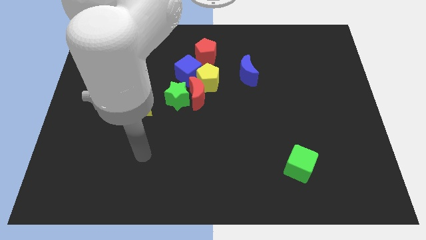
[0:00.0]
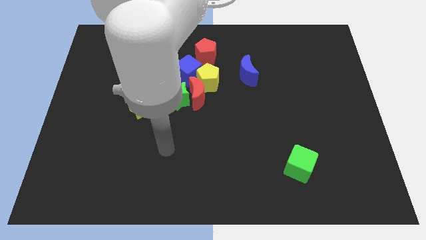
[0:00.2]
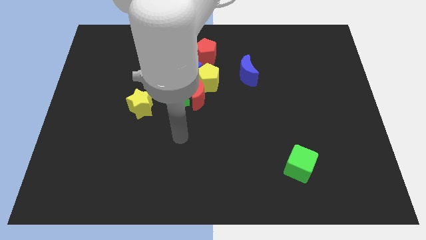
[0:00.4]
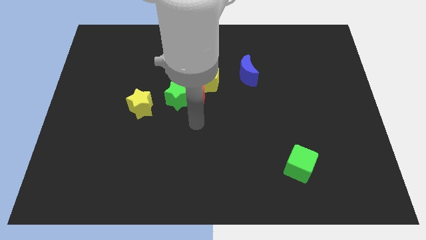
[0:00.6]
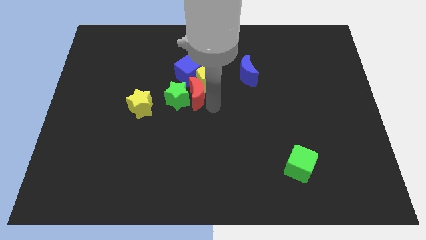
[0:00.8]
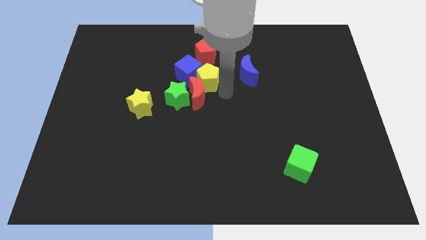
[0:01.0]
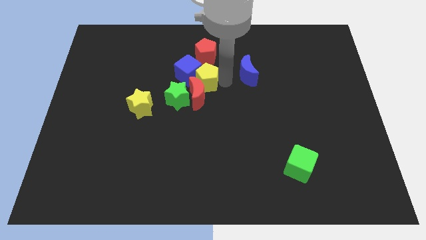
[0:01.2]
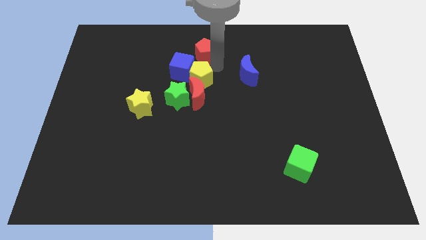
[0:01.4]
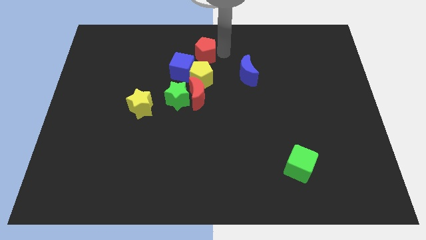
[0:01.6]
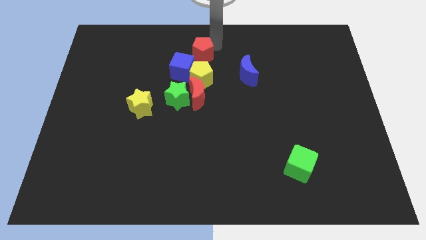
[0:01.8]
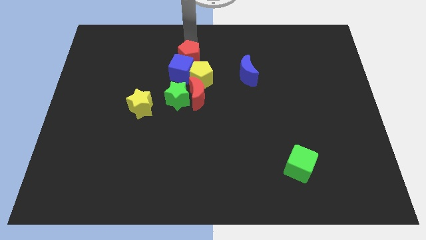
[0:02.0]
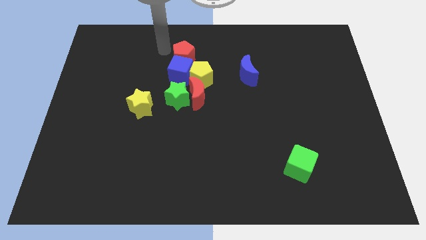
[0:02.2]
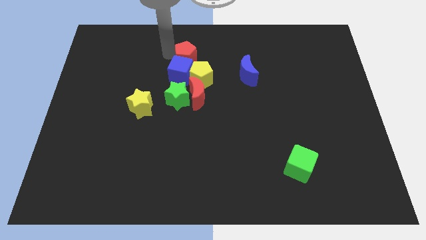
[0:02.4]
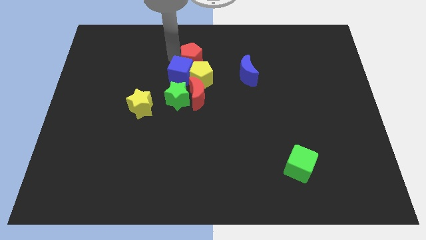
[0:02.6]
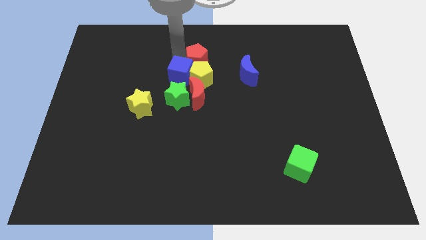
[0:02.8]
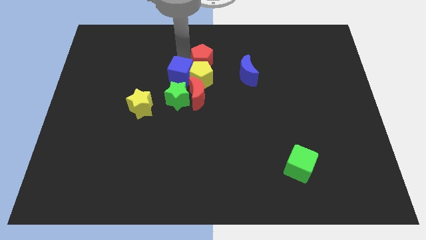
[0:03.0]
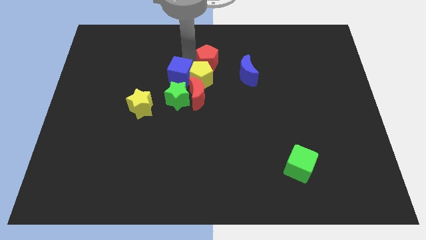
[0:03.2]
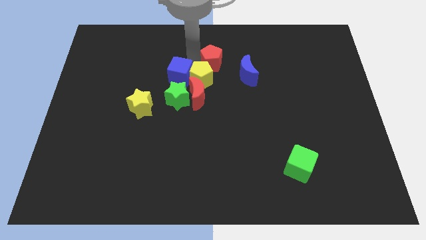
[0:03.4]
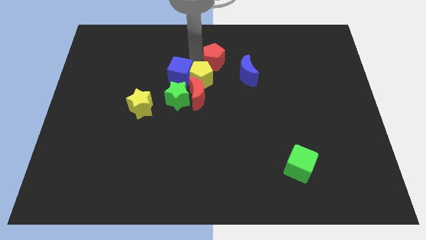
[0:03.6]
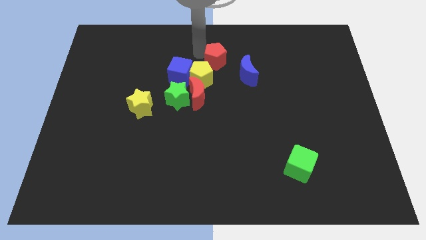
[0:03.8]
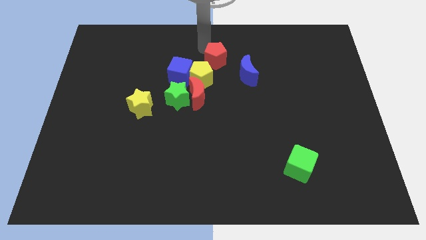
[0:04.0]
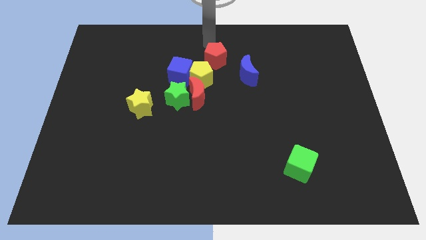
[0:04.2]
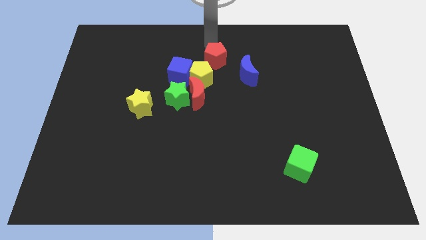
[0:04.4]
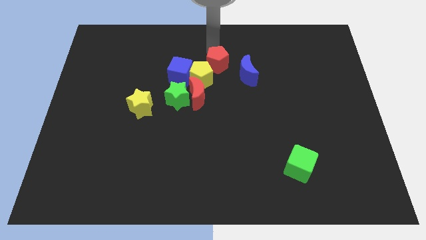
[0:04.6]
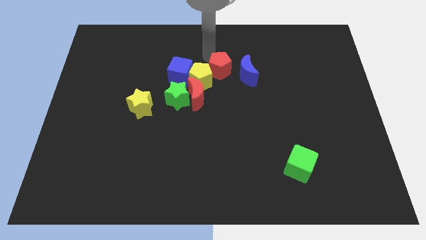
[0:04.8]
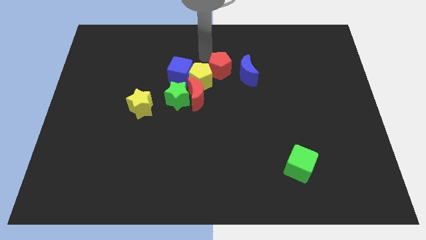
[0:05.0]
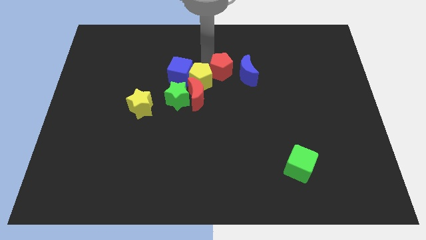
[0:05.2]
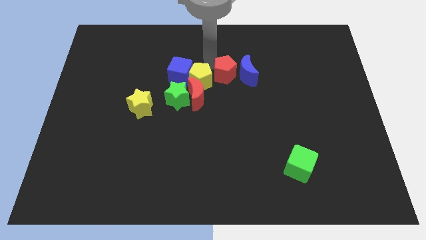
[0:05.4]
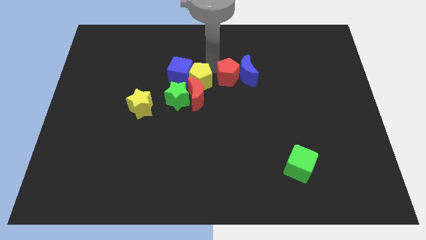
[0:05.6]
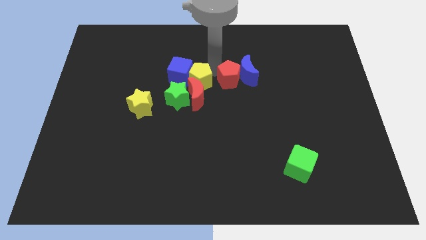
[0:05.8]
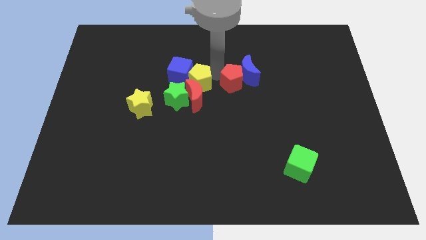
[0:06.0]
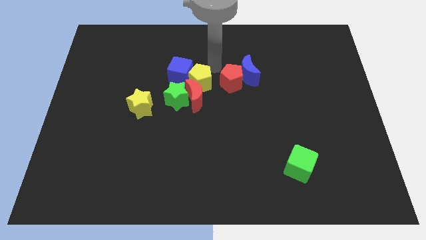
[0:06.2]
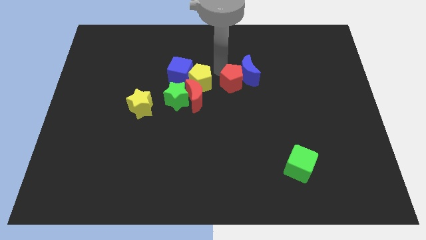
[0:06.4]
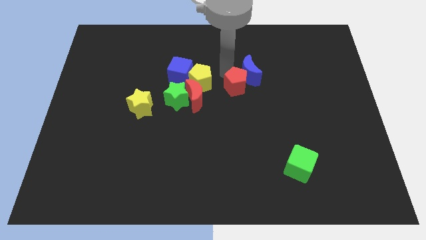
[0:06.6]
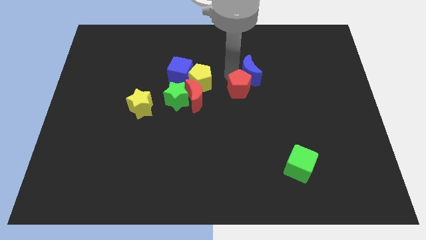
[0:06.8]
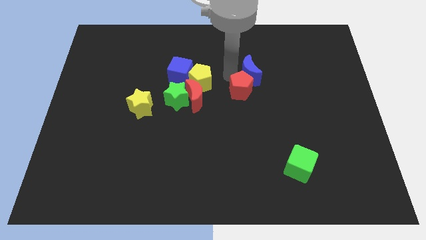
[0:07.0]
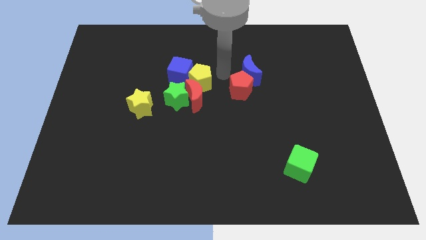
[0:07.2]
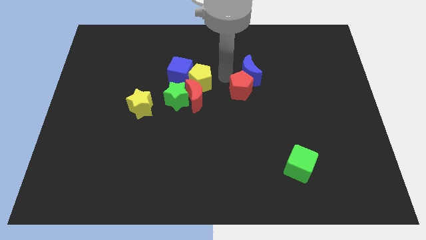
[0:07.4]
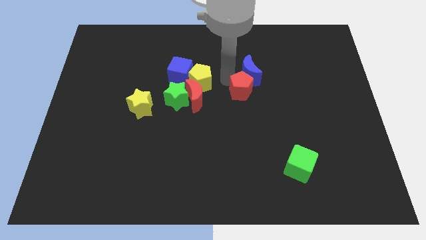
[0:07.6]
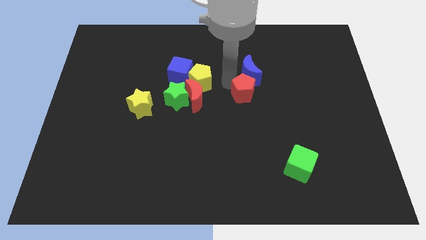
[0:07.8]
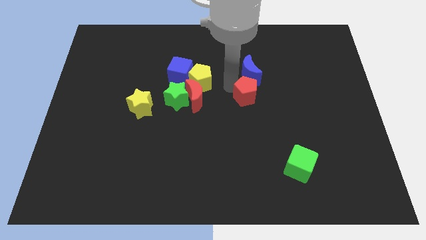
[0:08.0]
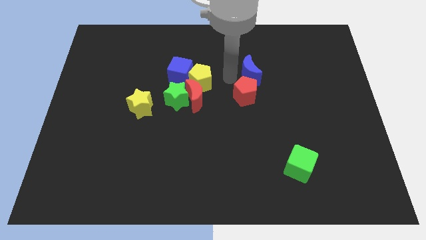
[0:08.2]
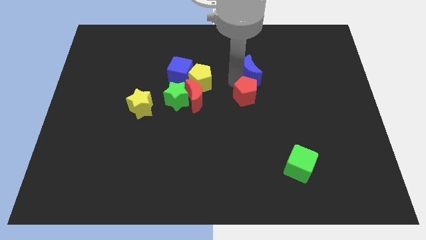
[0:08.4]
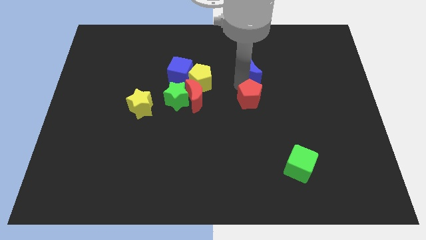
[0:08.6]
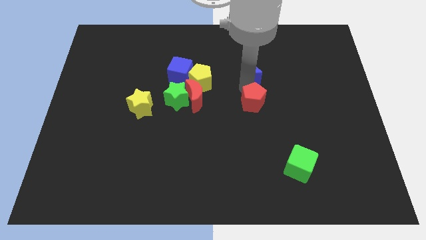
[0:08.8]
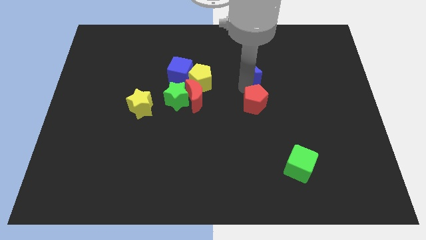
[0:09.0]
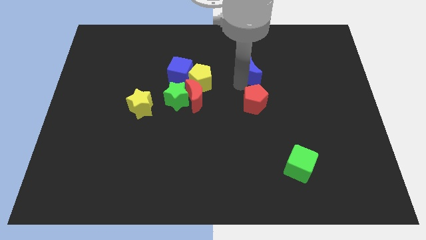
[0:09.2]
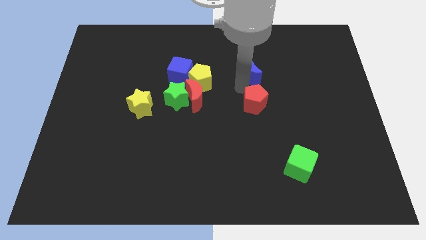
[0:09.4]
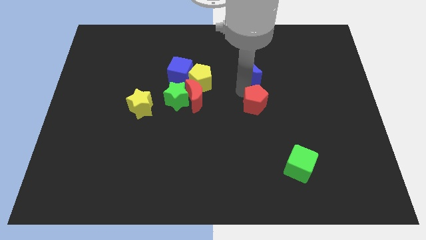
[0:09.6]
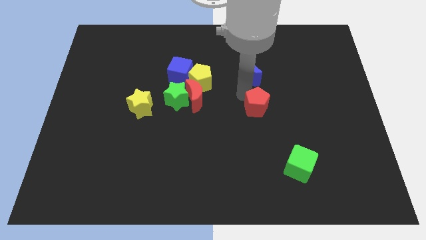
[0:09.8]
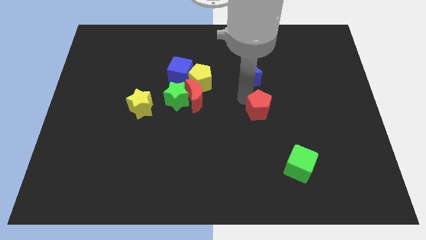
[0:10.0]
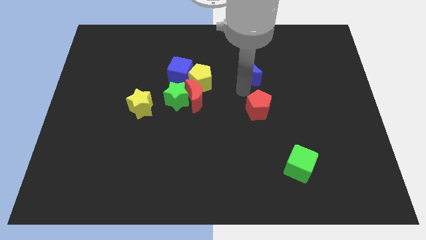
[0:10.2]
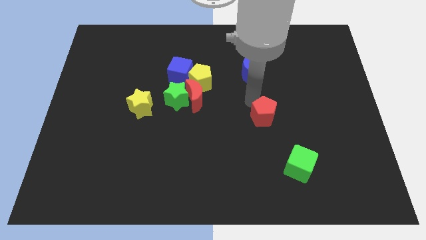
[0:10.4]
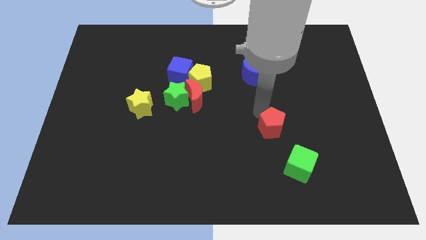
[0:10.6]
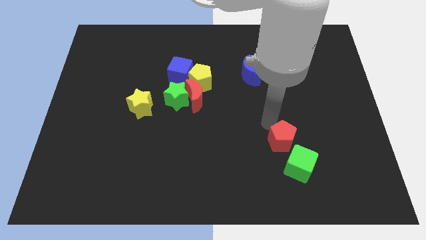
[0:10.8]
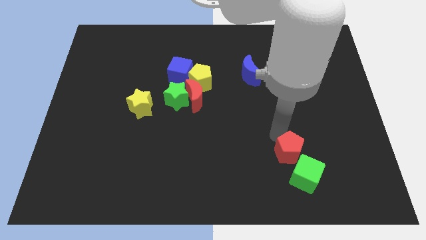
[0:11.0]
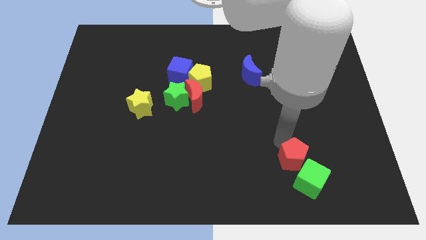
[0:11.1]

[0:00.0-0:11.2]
move the red pentagon close to the green cube

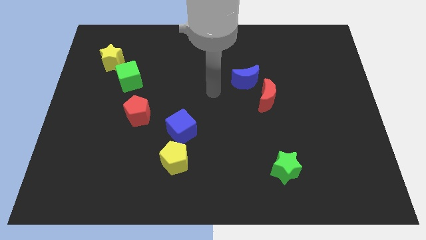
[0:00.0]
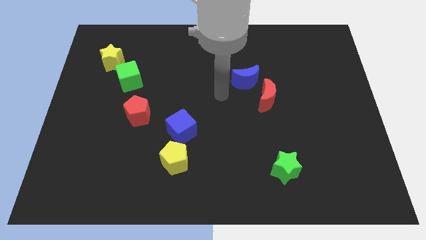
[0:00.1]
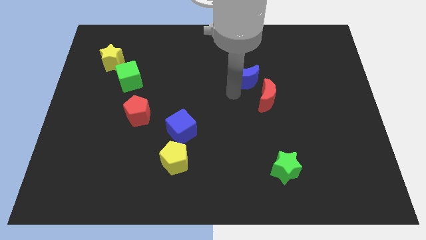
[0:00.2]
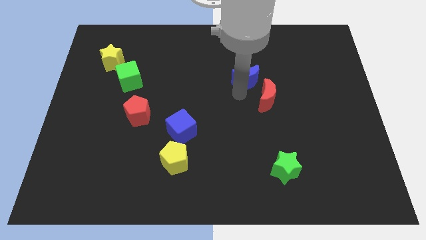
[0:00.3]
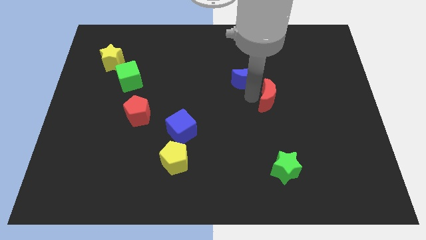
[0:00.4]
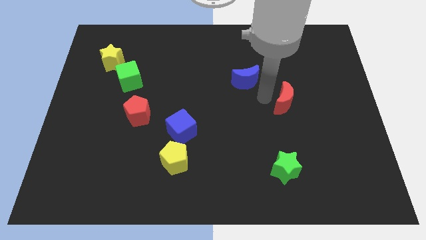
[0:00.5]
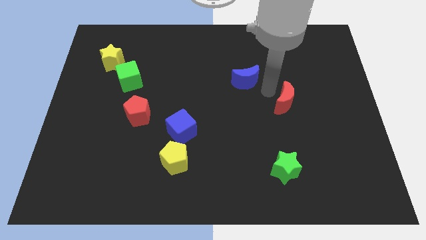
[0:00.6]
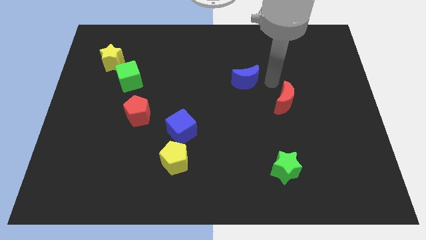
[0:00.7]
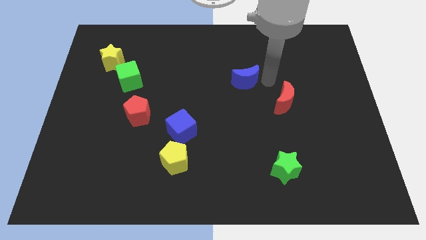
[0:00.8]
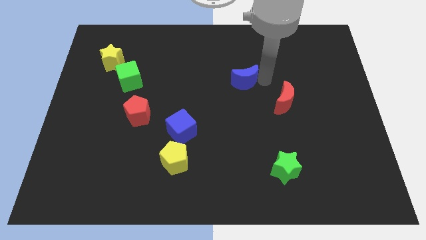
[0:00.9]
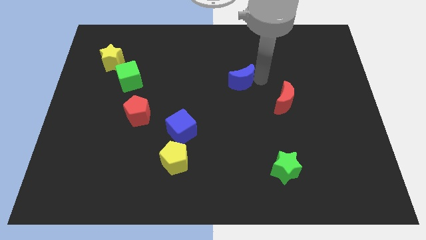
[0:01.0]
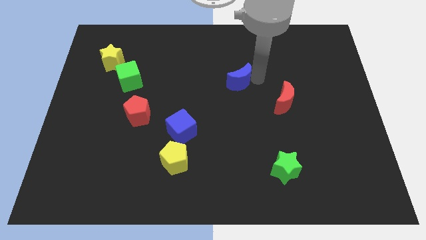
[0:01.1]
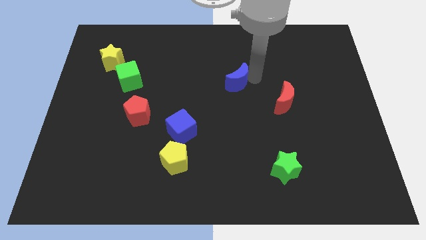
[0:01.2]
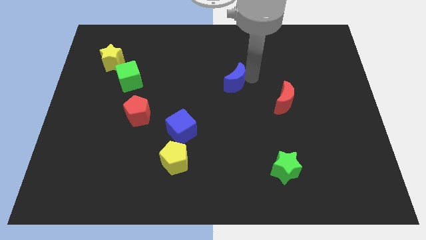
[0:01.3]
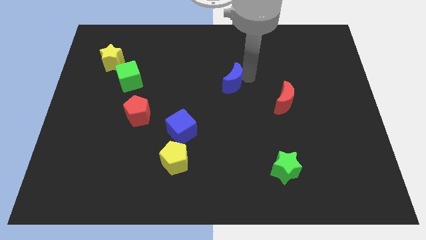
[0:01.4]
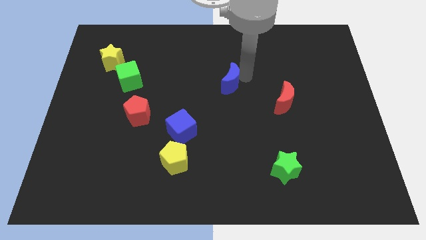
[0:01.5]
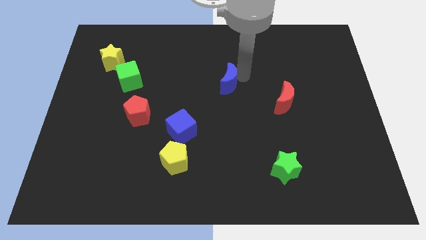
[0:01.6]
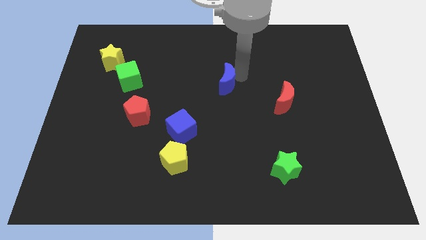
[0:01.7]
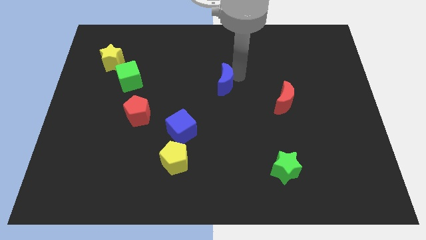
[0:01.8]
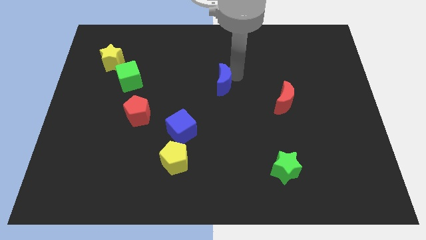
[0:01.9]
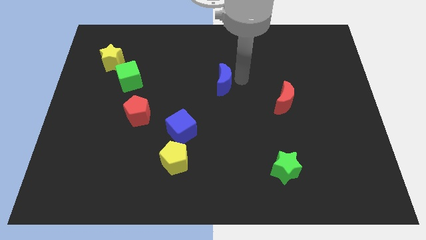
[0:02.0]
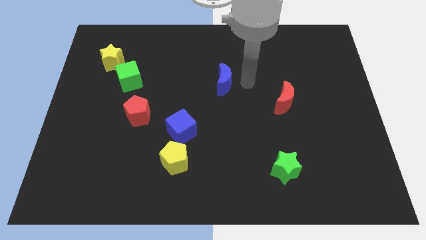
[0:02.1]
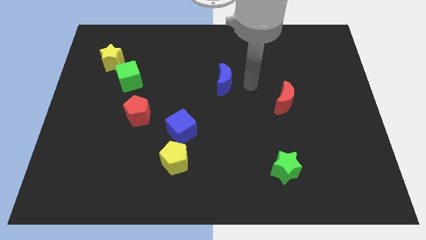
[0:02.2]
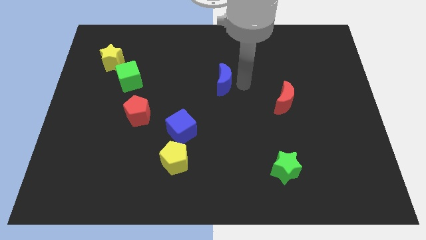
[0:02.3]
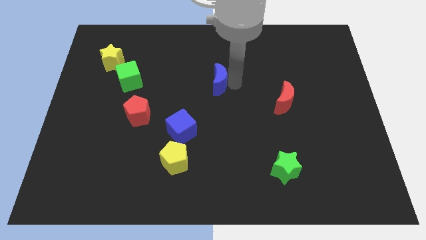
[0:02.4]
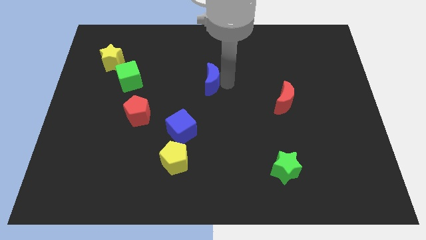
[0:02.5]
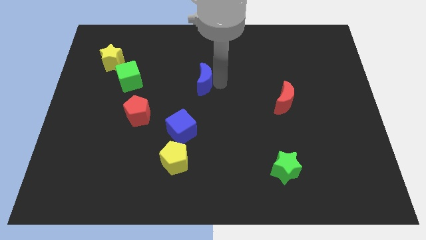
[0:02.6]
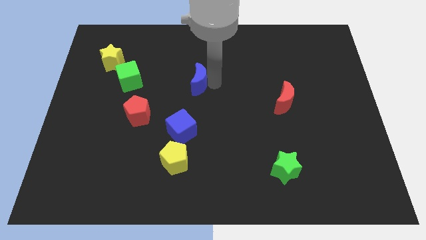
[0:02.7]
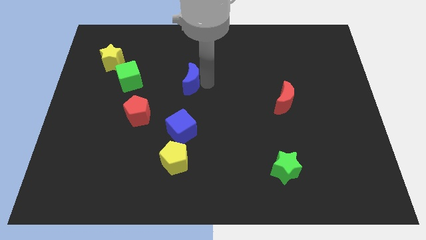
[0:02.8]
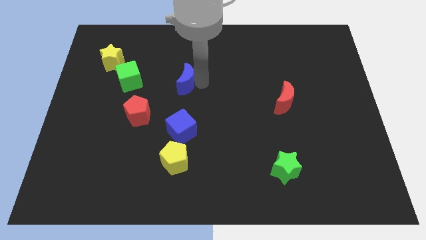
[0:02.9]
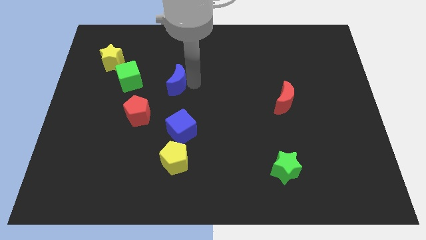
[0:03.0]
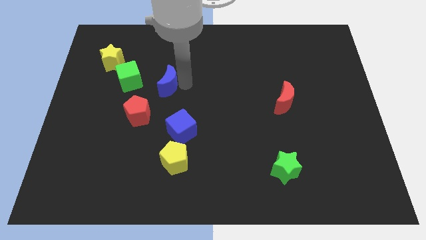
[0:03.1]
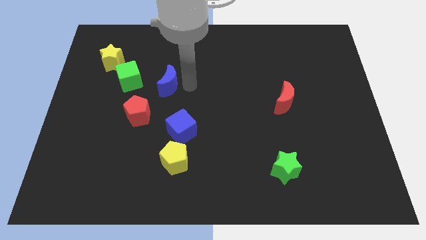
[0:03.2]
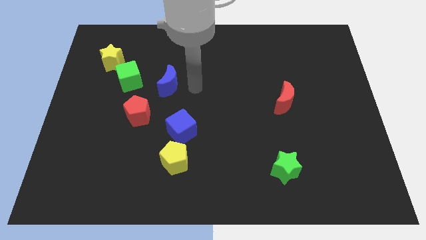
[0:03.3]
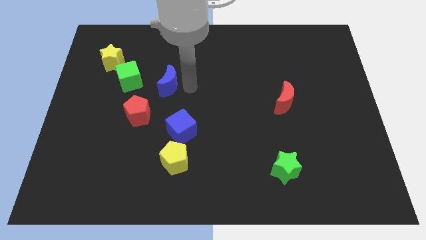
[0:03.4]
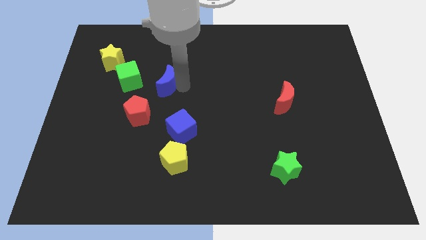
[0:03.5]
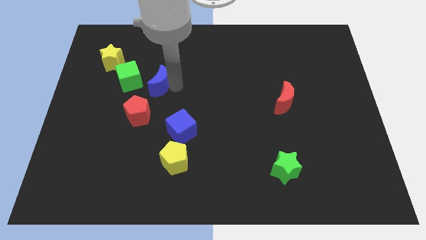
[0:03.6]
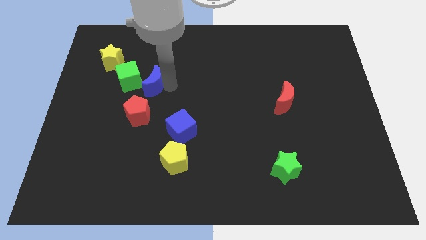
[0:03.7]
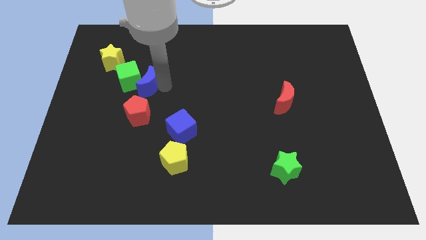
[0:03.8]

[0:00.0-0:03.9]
move the blue moon next to the green cube
